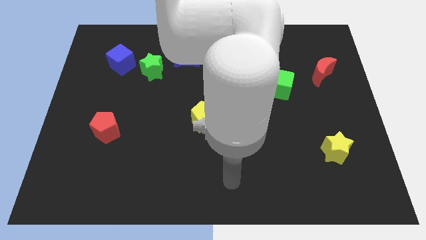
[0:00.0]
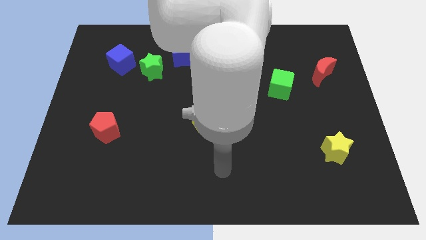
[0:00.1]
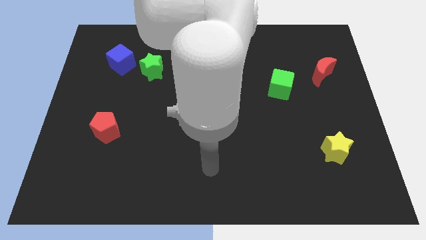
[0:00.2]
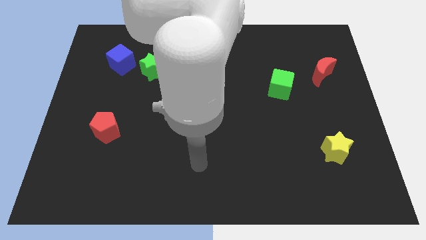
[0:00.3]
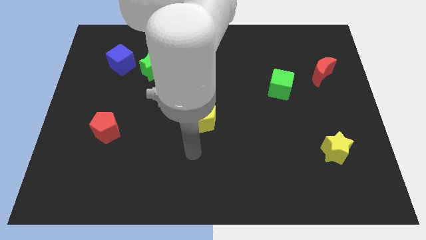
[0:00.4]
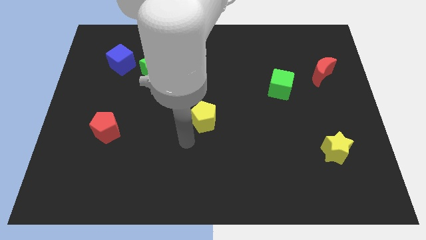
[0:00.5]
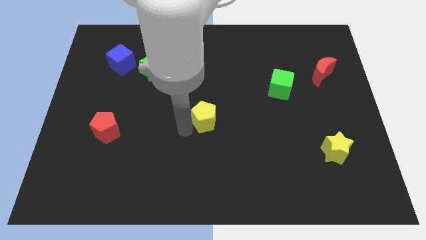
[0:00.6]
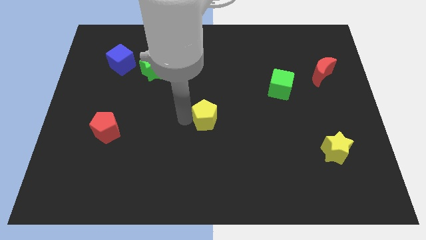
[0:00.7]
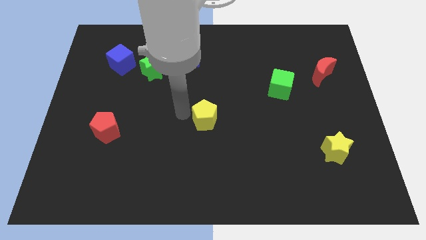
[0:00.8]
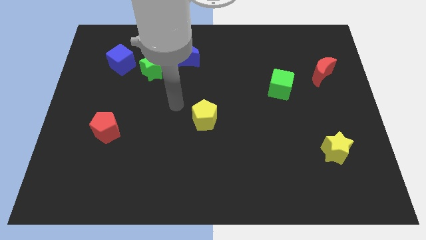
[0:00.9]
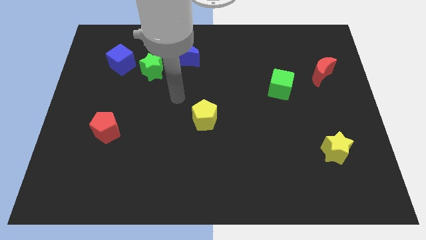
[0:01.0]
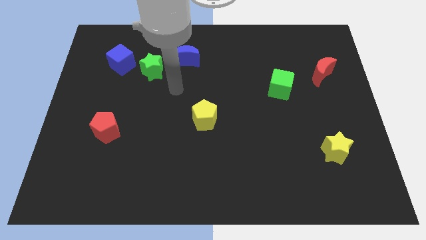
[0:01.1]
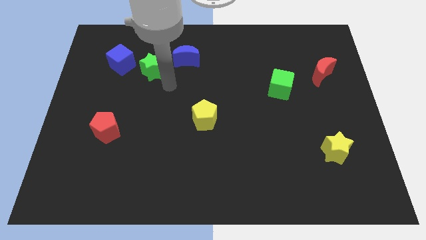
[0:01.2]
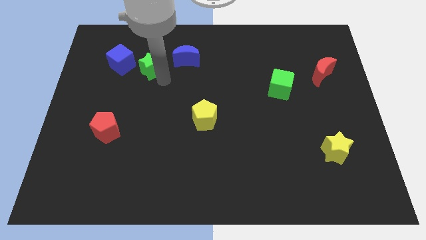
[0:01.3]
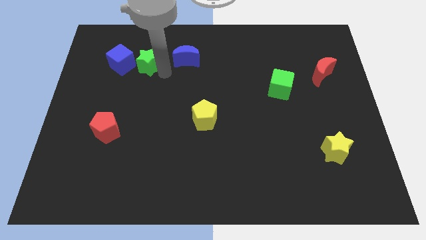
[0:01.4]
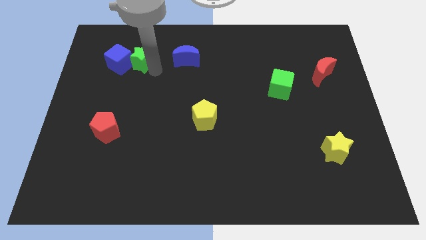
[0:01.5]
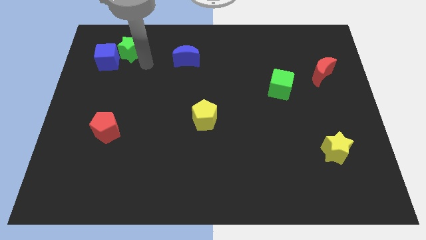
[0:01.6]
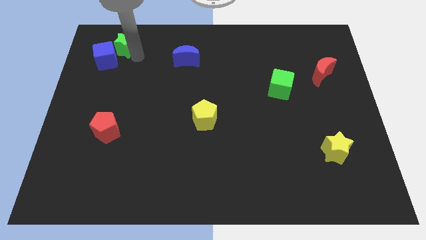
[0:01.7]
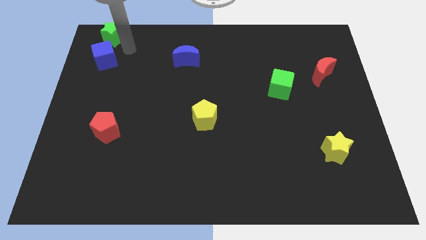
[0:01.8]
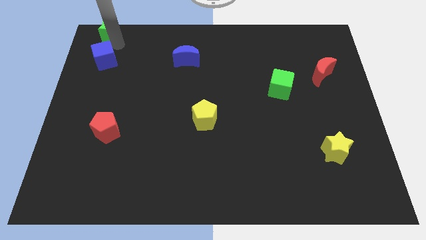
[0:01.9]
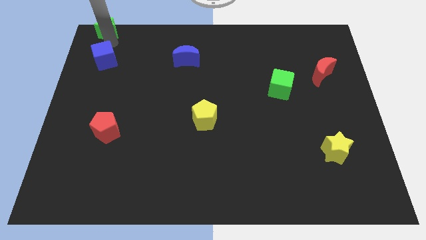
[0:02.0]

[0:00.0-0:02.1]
separate the blue cube from the green star

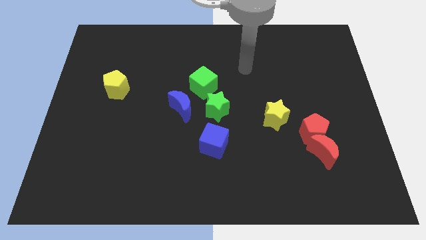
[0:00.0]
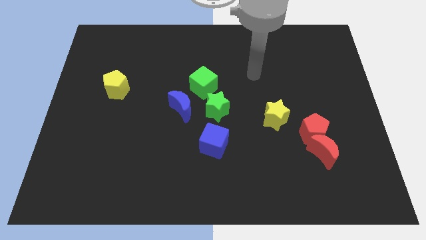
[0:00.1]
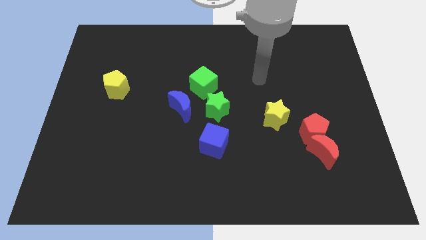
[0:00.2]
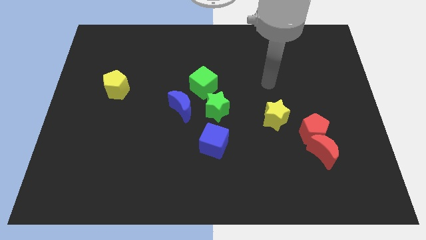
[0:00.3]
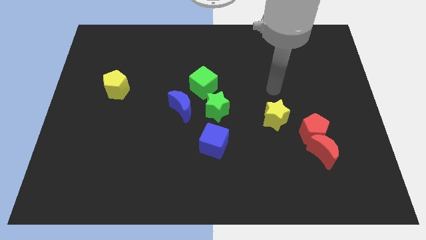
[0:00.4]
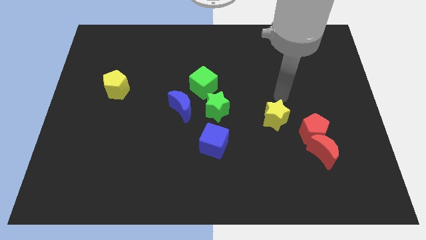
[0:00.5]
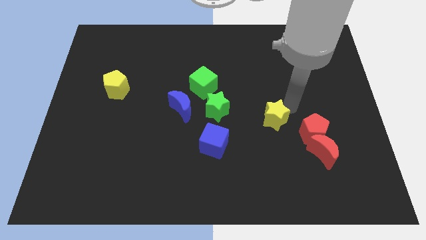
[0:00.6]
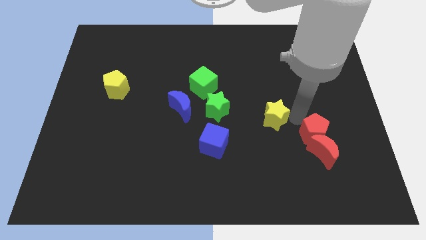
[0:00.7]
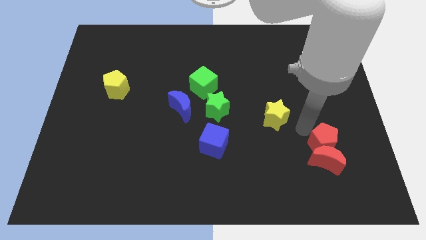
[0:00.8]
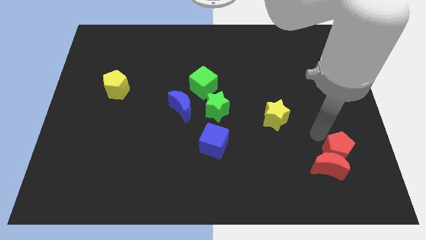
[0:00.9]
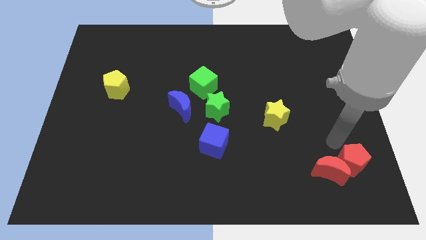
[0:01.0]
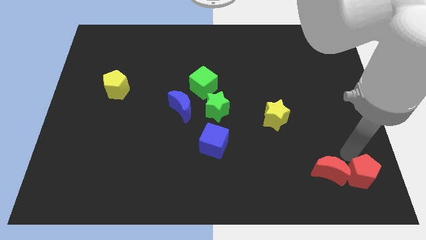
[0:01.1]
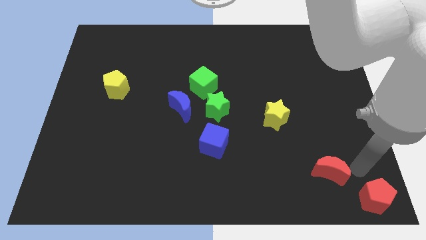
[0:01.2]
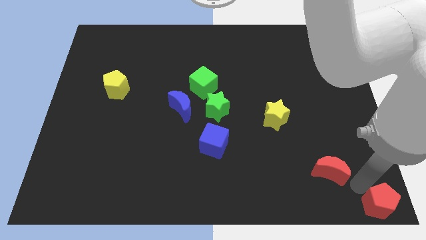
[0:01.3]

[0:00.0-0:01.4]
separate the red moon from the red pentagon

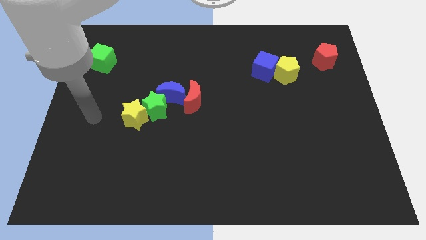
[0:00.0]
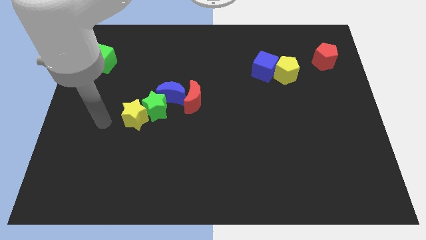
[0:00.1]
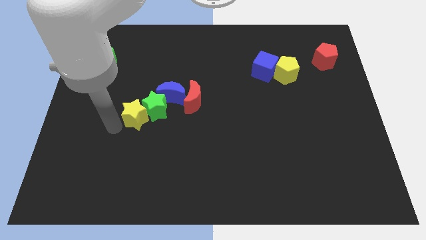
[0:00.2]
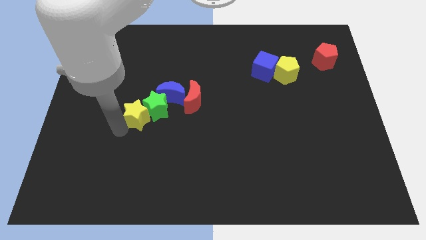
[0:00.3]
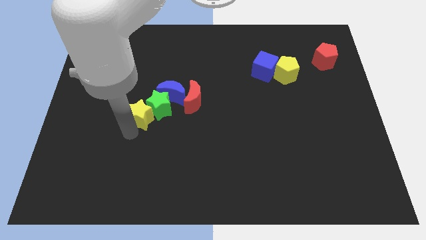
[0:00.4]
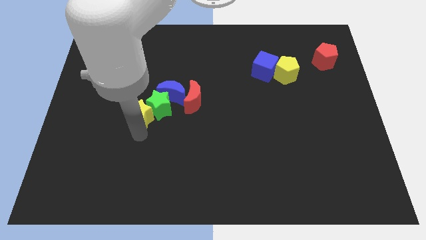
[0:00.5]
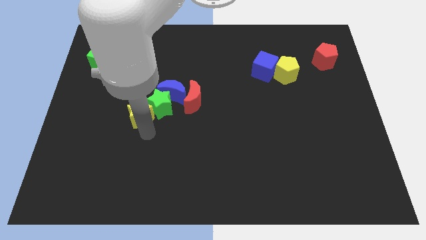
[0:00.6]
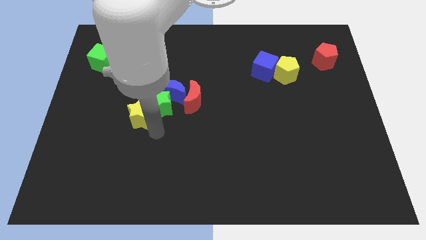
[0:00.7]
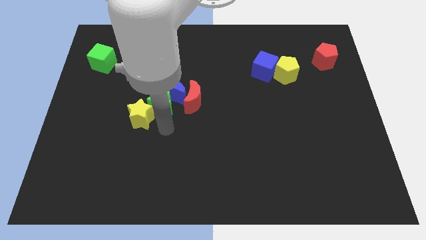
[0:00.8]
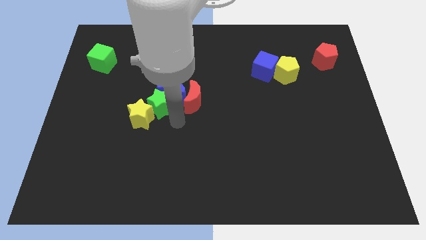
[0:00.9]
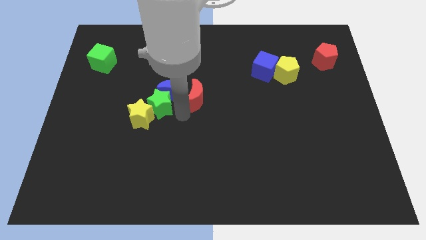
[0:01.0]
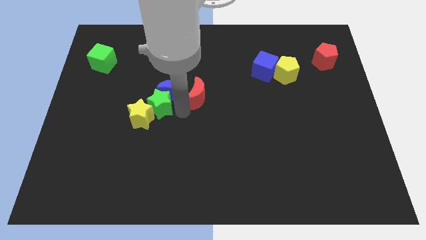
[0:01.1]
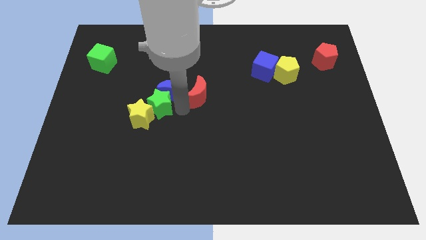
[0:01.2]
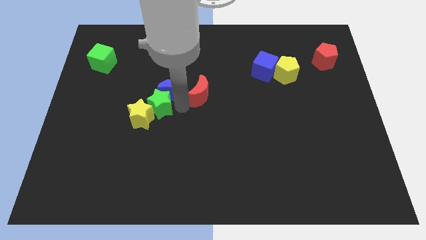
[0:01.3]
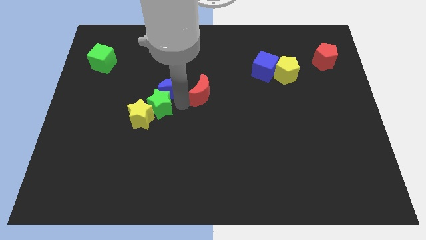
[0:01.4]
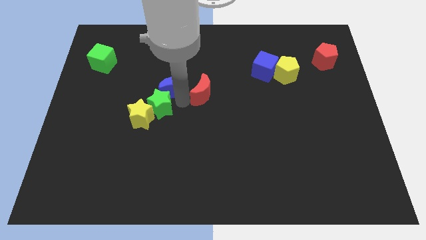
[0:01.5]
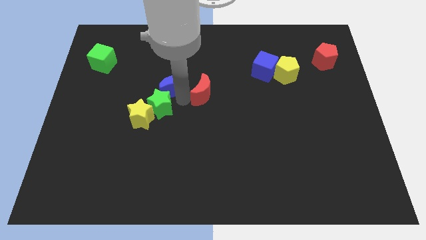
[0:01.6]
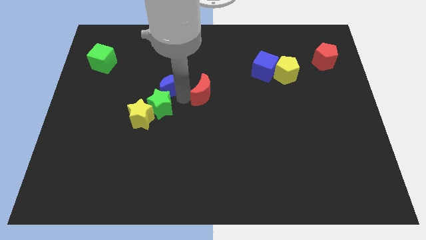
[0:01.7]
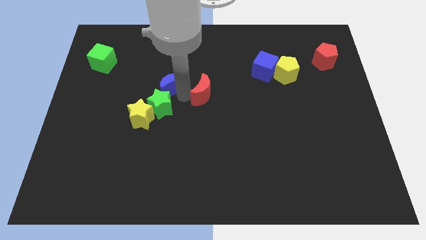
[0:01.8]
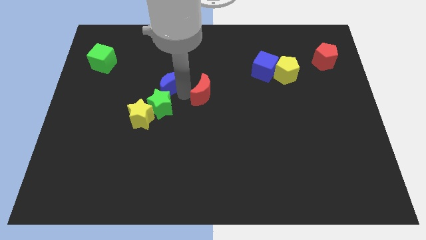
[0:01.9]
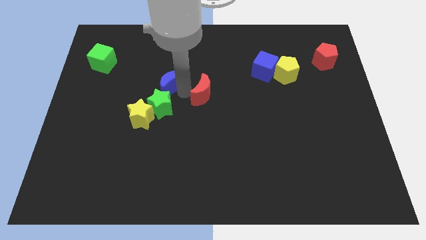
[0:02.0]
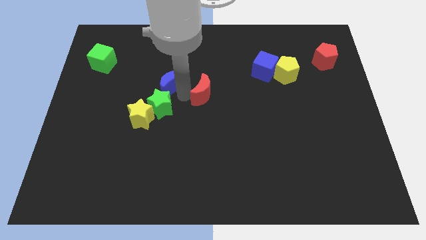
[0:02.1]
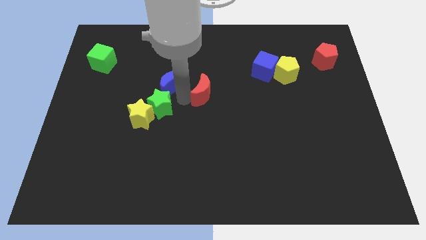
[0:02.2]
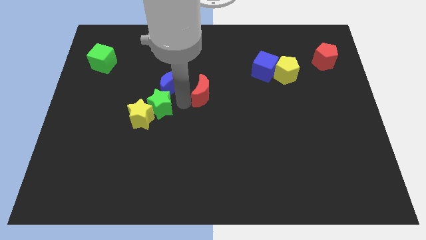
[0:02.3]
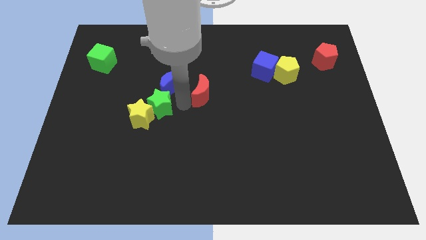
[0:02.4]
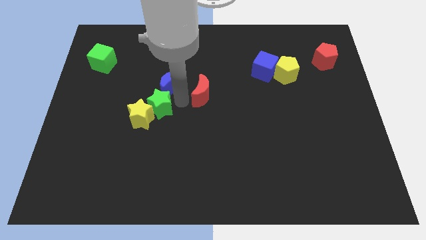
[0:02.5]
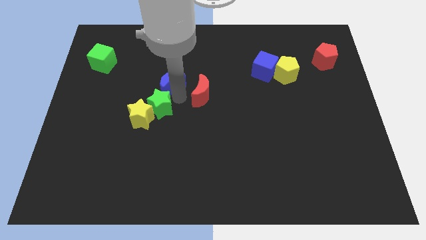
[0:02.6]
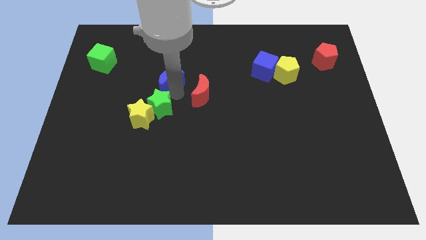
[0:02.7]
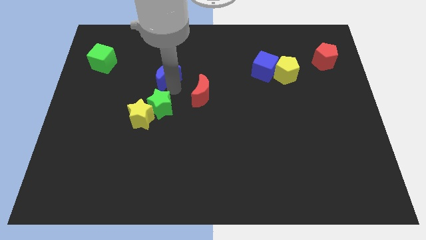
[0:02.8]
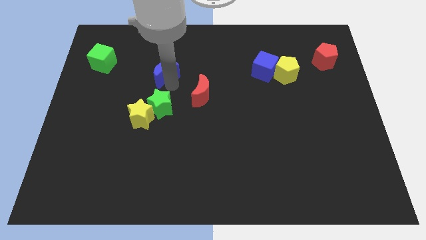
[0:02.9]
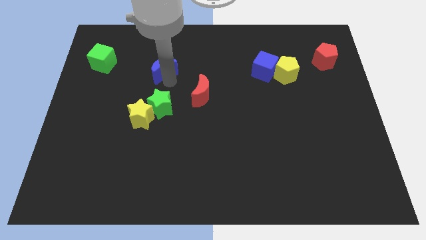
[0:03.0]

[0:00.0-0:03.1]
pull the blue moon apart from the green star and red moon

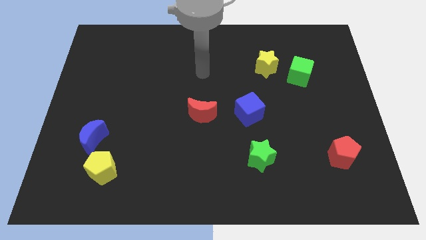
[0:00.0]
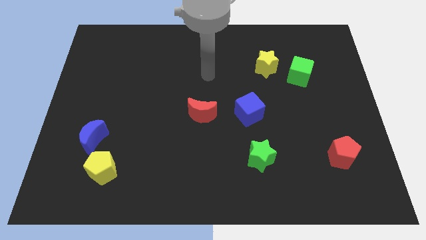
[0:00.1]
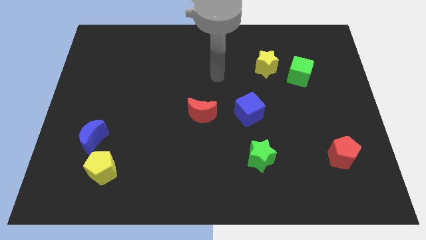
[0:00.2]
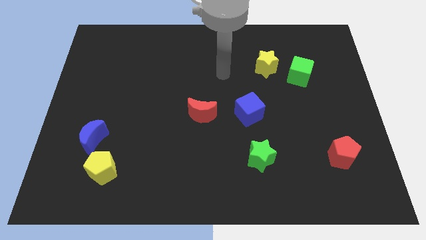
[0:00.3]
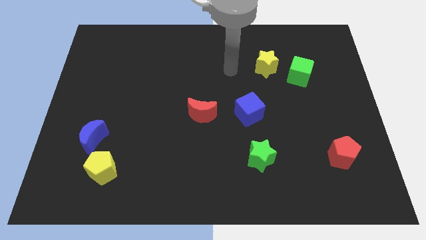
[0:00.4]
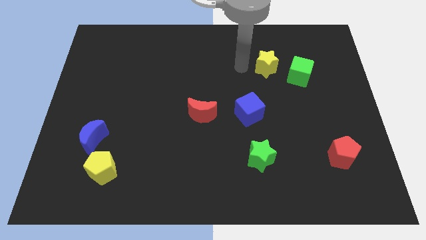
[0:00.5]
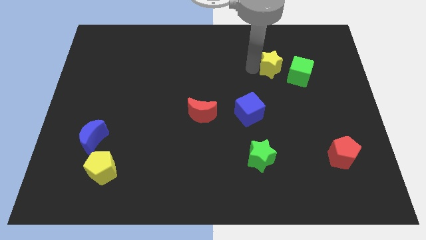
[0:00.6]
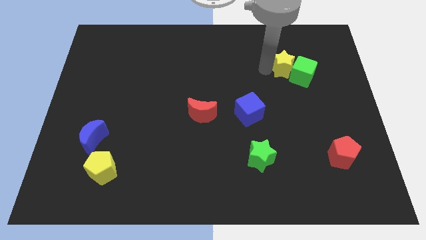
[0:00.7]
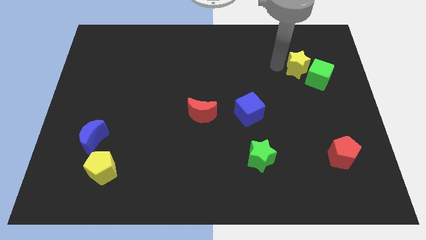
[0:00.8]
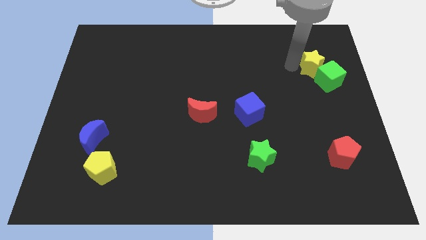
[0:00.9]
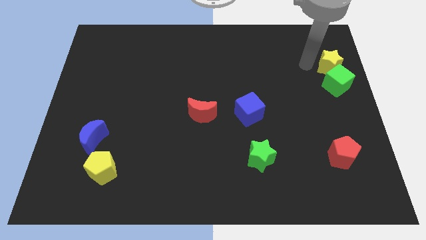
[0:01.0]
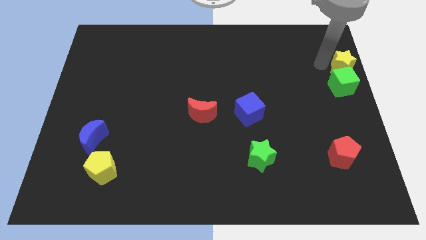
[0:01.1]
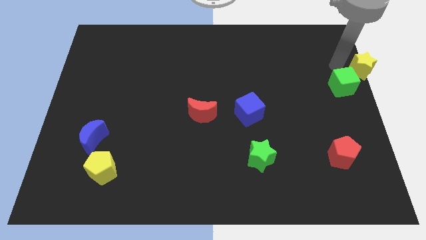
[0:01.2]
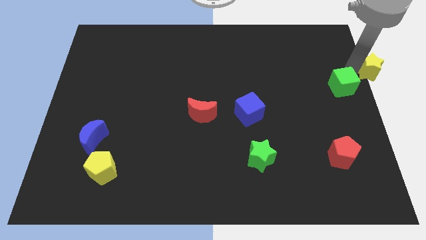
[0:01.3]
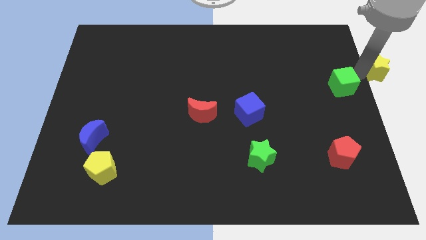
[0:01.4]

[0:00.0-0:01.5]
separate the green cube from the yellow star

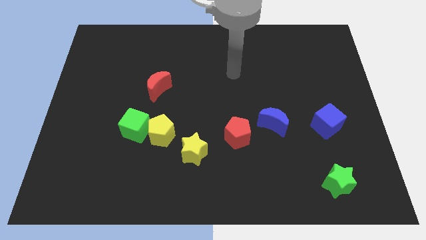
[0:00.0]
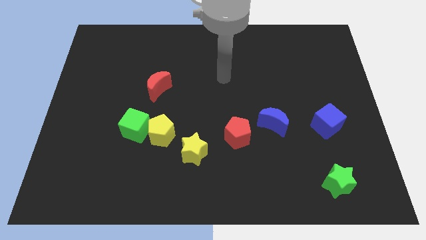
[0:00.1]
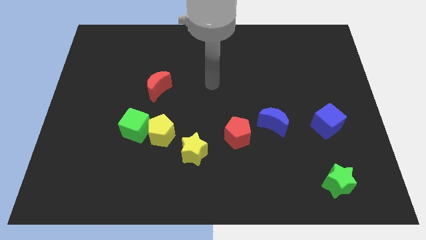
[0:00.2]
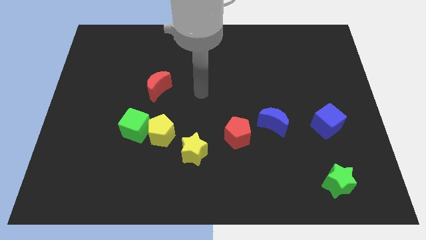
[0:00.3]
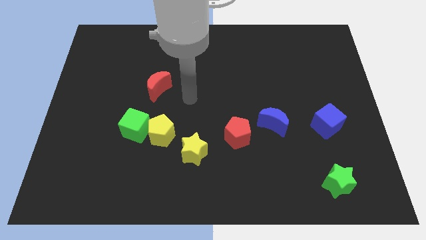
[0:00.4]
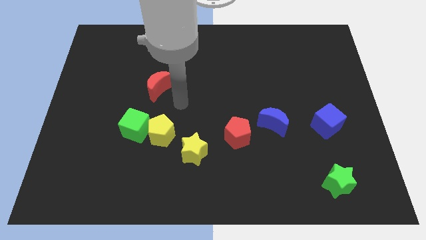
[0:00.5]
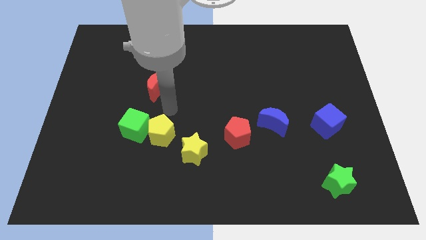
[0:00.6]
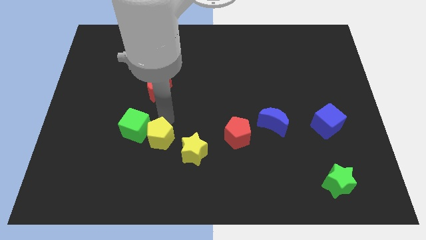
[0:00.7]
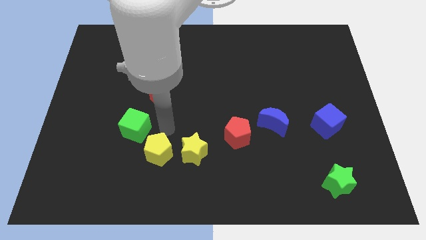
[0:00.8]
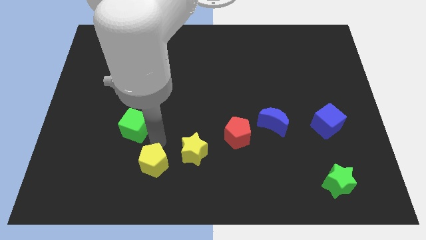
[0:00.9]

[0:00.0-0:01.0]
move the green cube away from the yellow pentagon

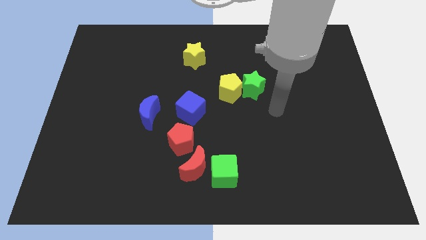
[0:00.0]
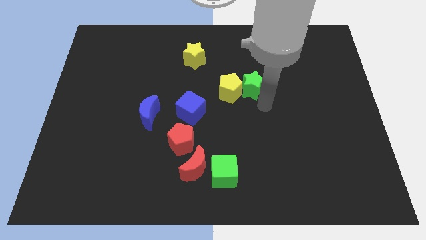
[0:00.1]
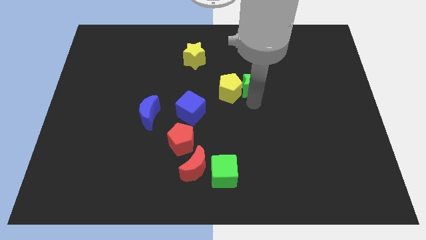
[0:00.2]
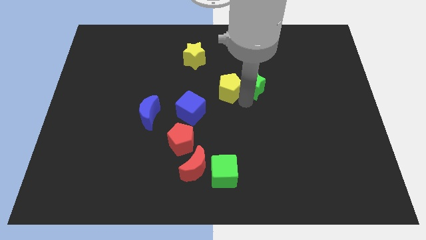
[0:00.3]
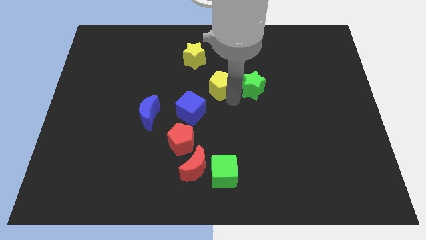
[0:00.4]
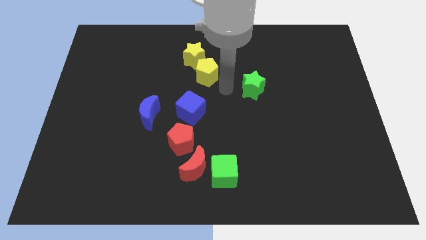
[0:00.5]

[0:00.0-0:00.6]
move the green star away from the yellow pentagon
